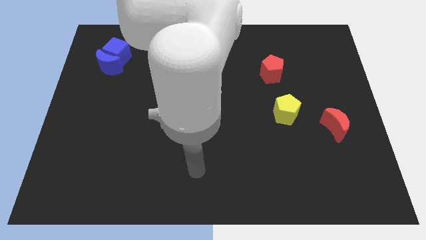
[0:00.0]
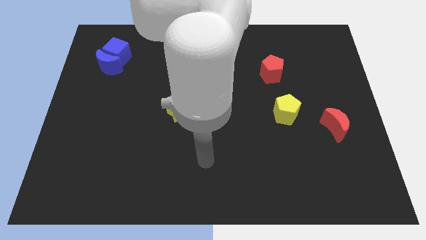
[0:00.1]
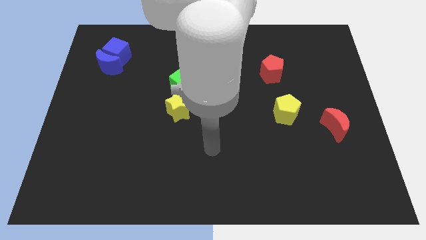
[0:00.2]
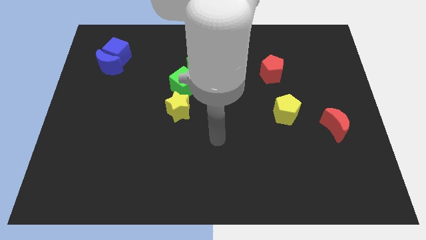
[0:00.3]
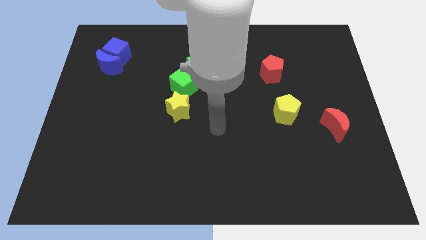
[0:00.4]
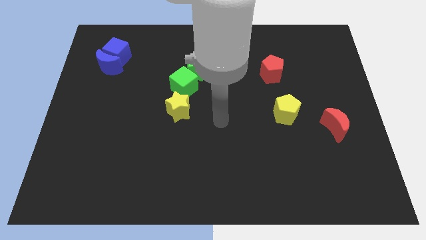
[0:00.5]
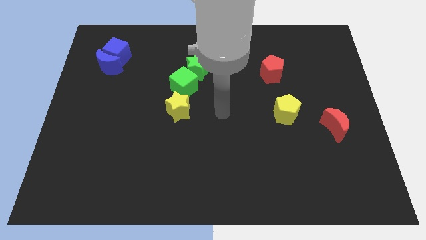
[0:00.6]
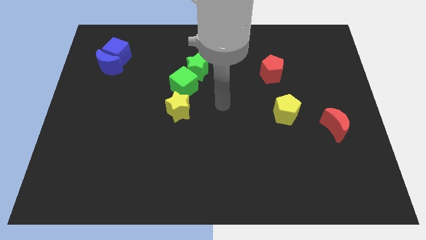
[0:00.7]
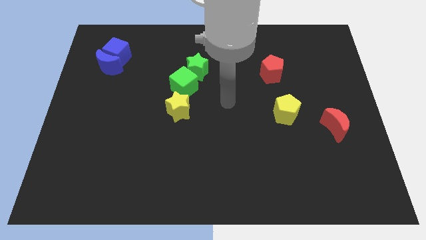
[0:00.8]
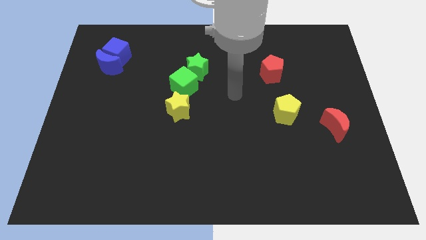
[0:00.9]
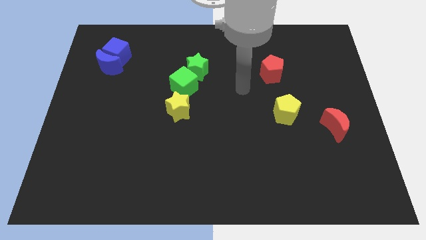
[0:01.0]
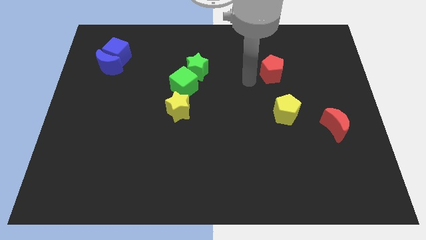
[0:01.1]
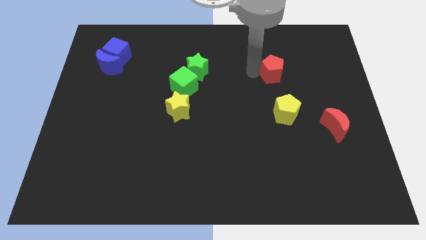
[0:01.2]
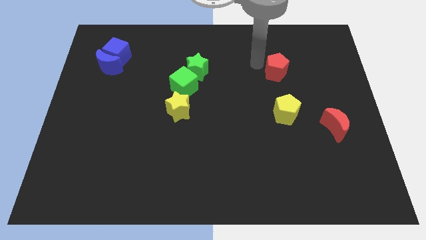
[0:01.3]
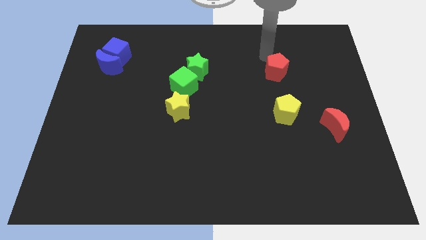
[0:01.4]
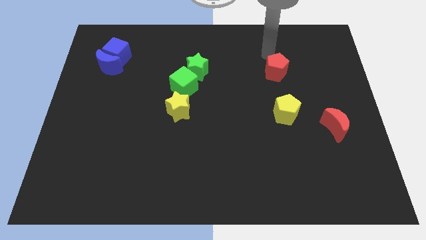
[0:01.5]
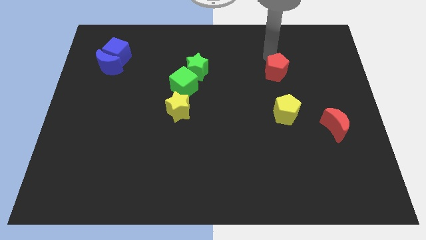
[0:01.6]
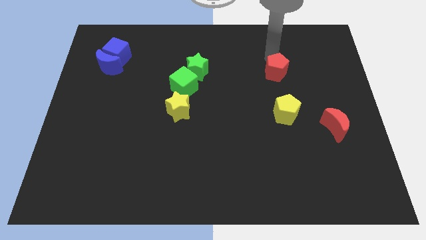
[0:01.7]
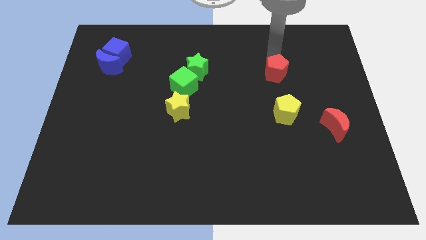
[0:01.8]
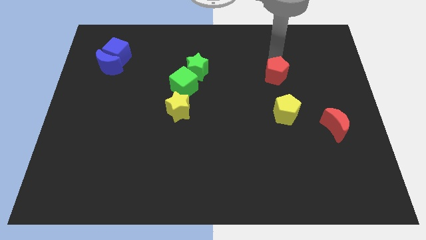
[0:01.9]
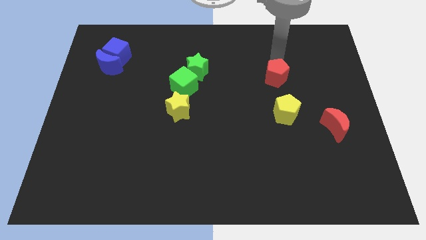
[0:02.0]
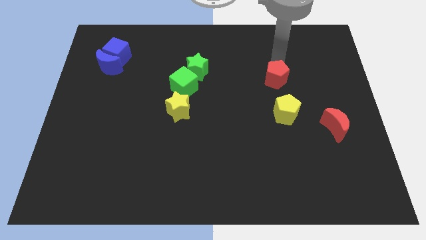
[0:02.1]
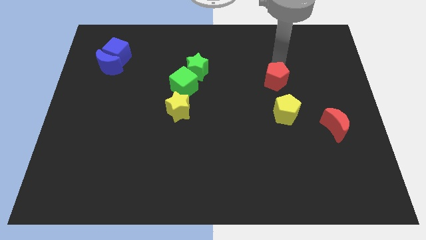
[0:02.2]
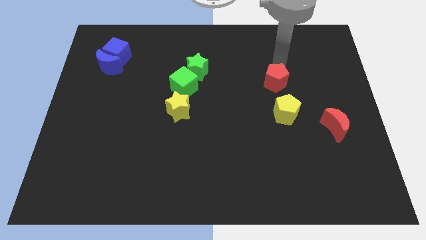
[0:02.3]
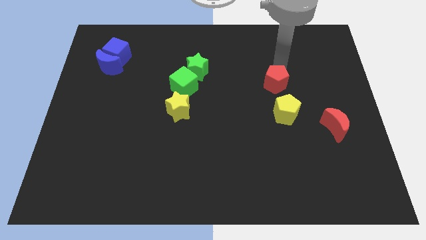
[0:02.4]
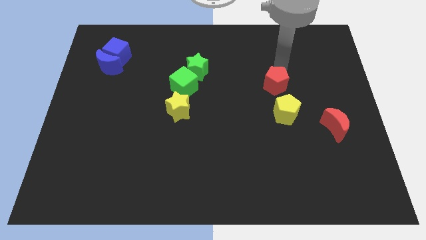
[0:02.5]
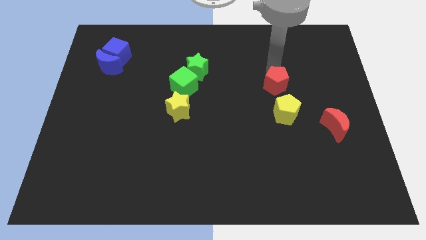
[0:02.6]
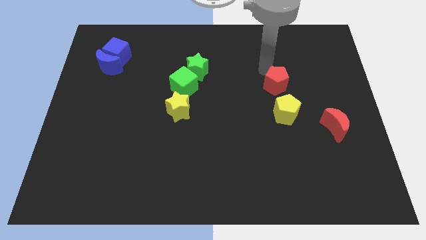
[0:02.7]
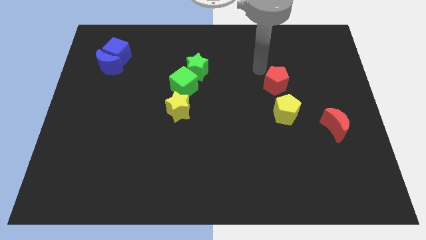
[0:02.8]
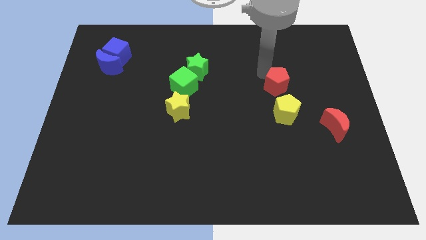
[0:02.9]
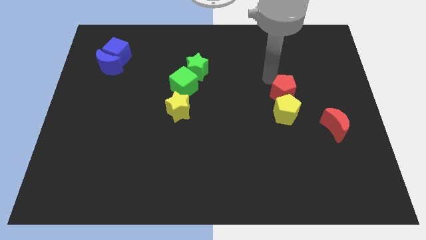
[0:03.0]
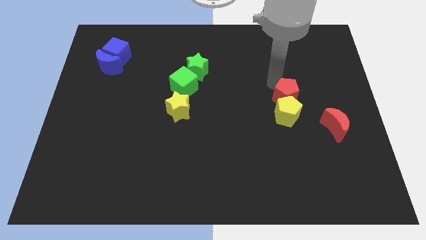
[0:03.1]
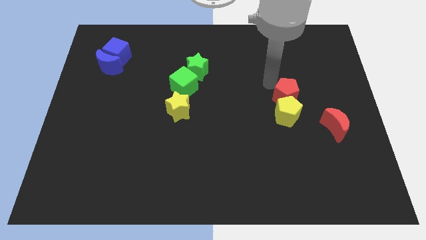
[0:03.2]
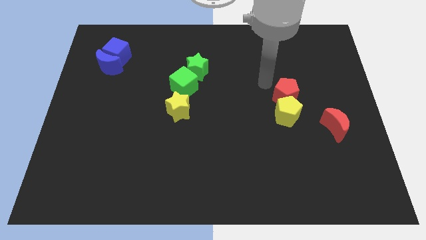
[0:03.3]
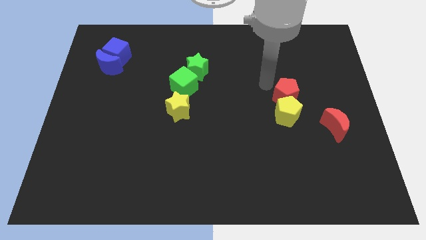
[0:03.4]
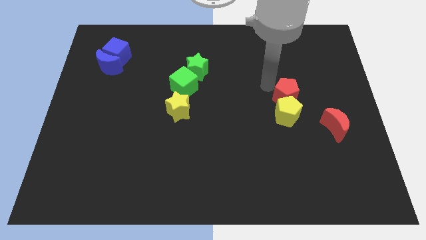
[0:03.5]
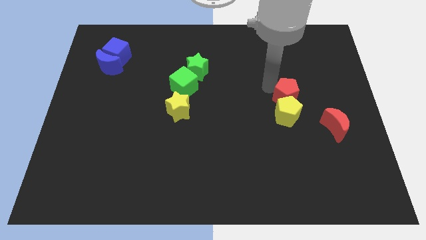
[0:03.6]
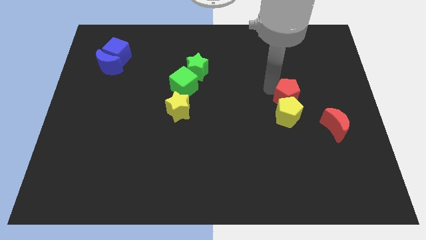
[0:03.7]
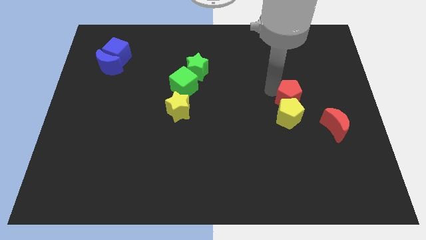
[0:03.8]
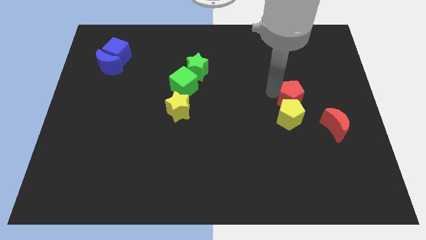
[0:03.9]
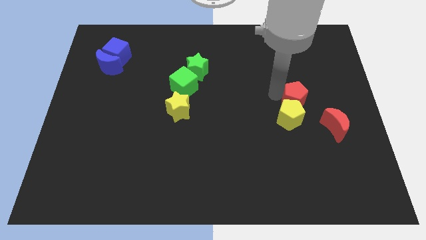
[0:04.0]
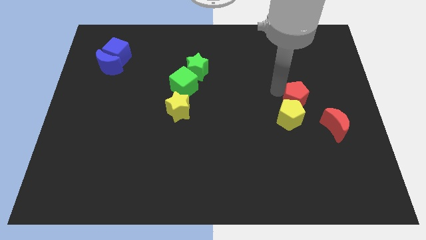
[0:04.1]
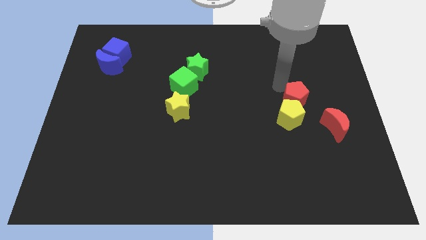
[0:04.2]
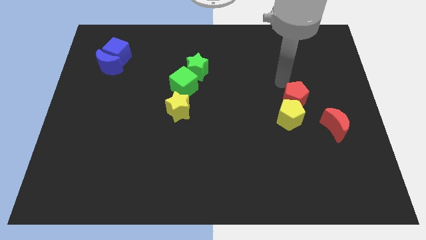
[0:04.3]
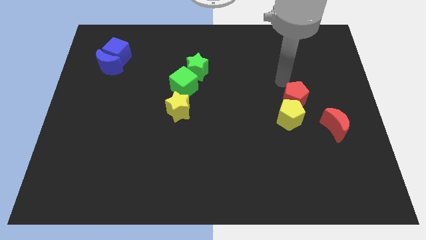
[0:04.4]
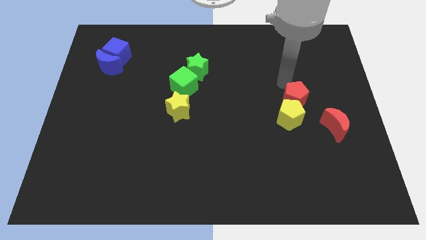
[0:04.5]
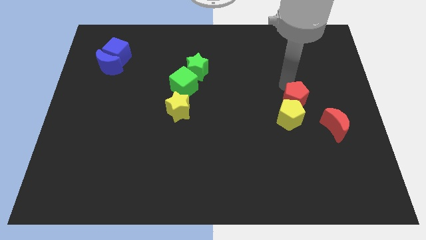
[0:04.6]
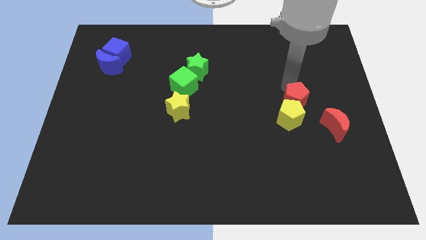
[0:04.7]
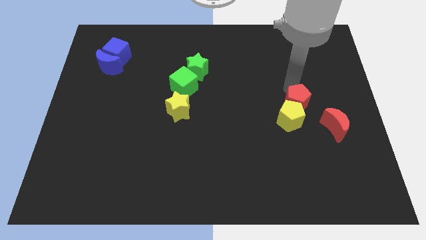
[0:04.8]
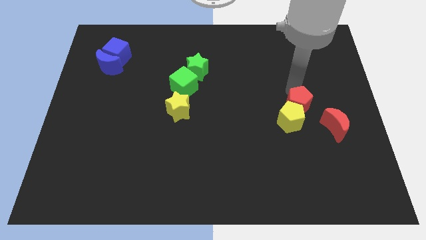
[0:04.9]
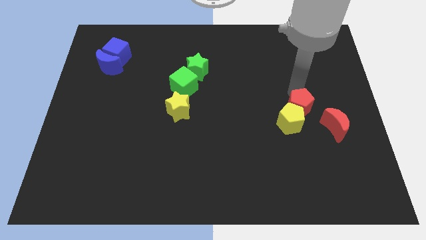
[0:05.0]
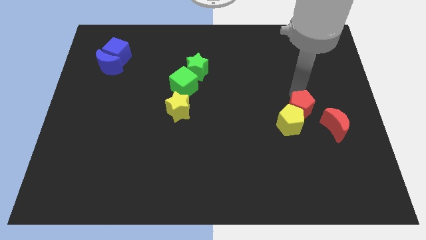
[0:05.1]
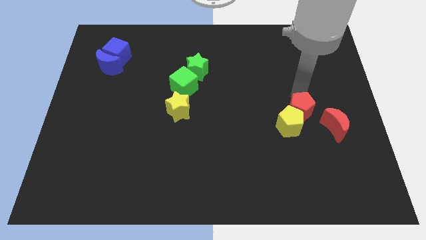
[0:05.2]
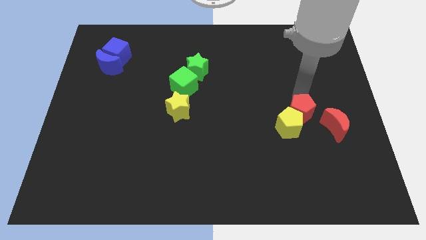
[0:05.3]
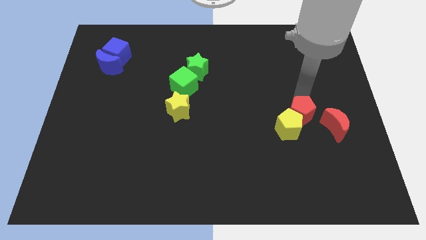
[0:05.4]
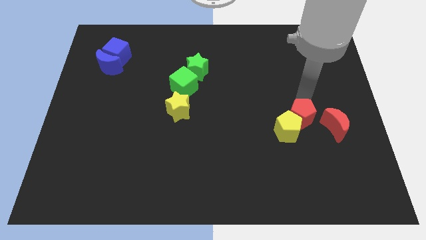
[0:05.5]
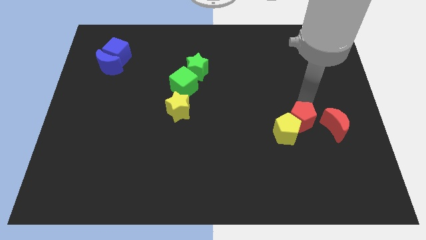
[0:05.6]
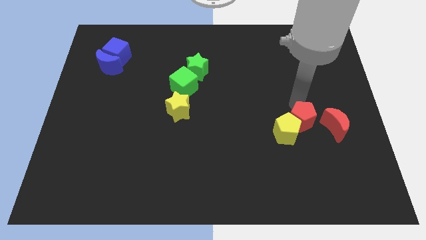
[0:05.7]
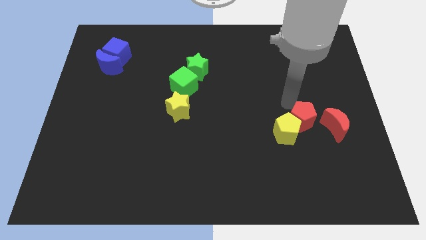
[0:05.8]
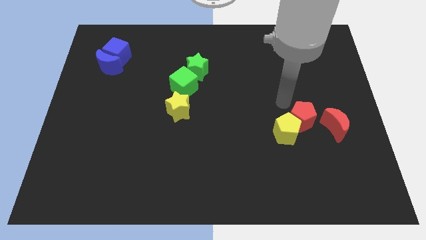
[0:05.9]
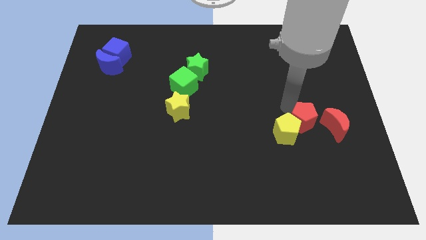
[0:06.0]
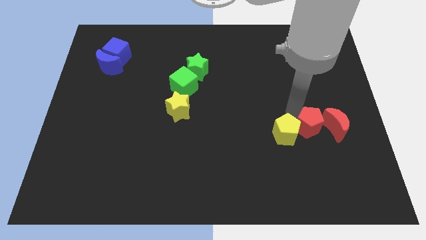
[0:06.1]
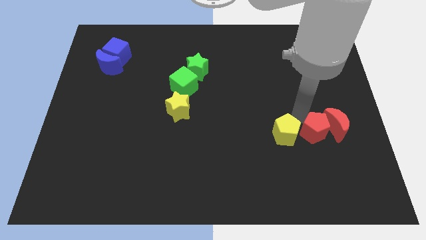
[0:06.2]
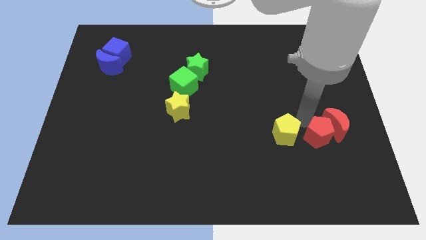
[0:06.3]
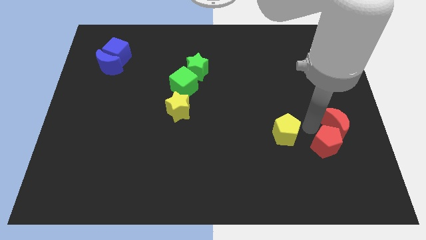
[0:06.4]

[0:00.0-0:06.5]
slide the red pentagon to the bottom side of the red moon

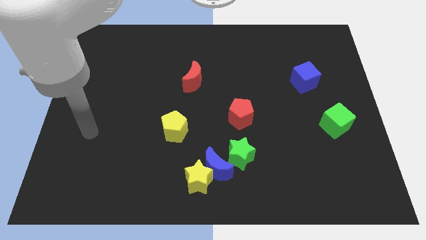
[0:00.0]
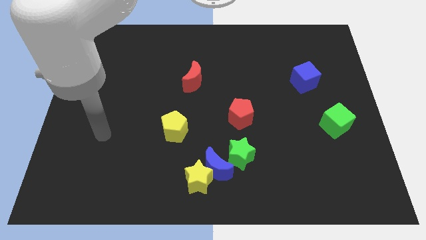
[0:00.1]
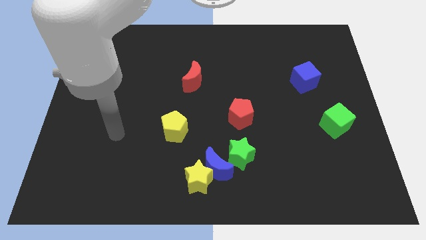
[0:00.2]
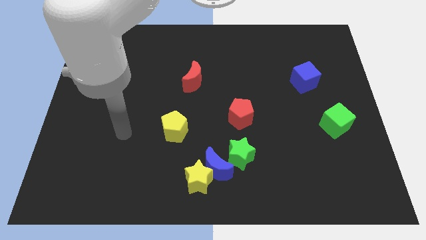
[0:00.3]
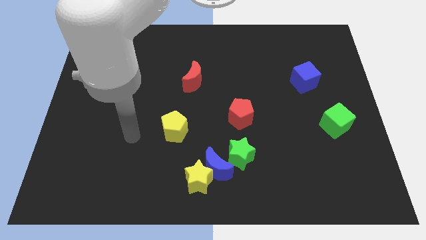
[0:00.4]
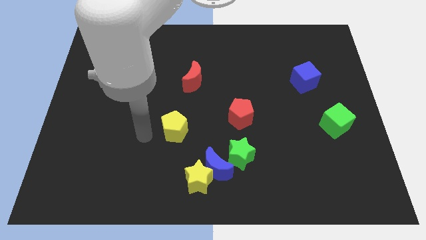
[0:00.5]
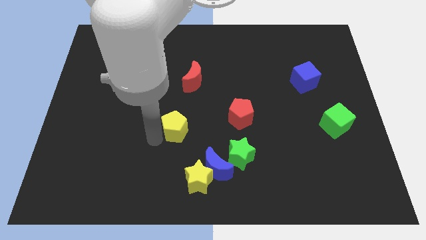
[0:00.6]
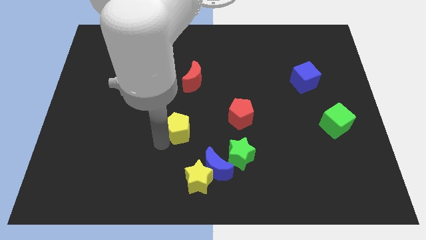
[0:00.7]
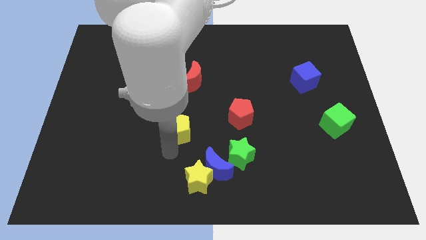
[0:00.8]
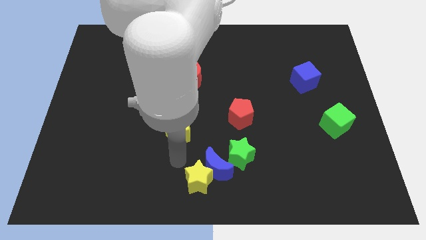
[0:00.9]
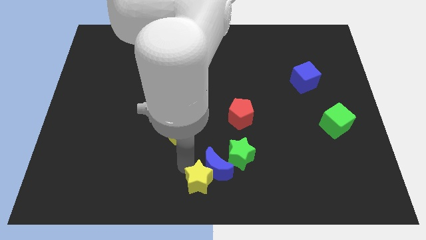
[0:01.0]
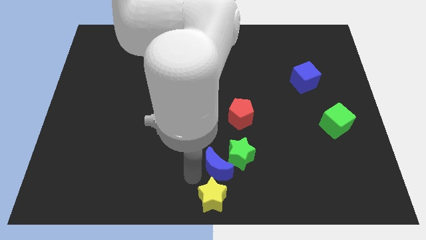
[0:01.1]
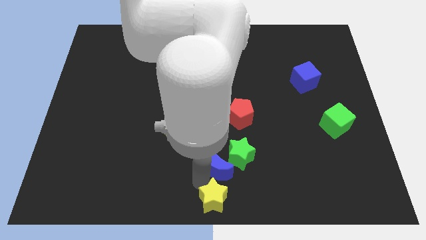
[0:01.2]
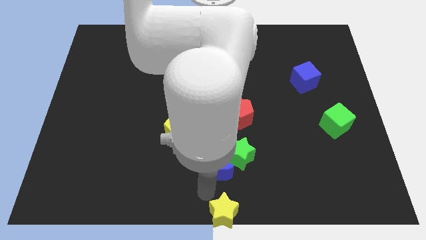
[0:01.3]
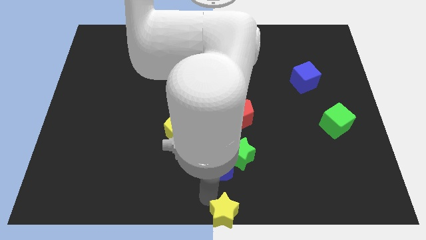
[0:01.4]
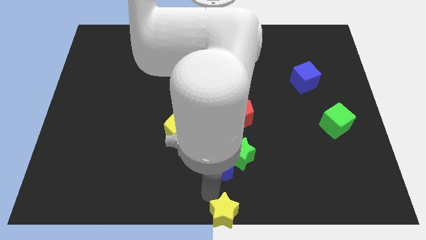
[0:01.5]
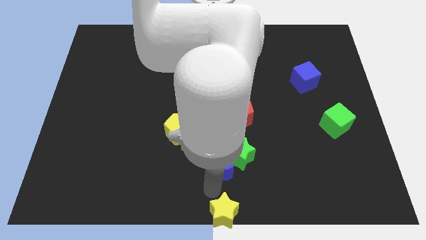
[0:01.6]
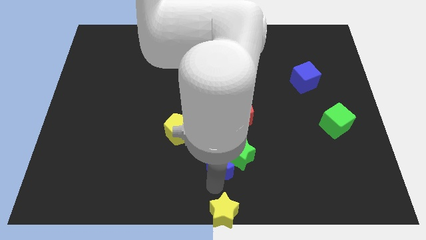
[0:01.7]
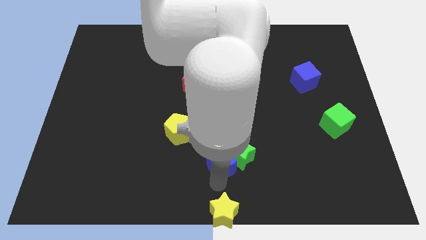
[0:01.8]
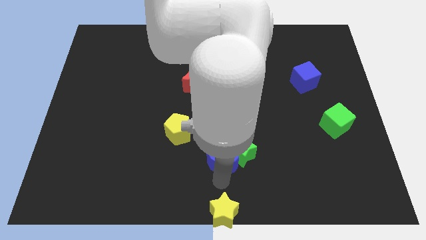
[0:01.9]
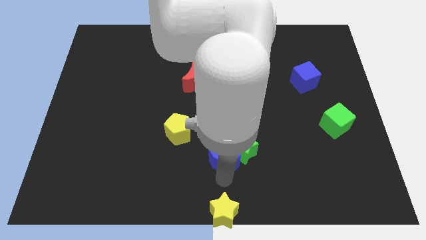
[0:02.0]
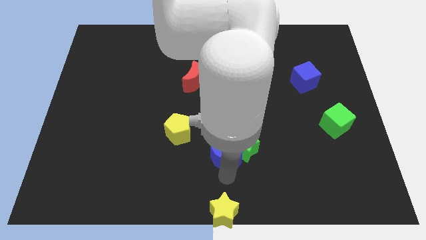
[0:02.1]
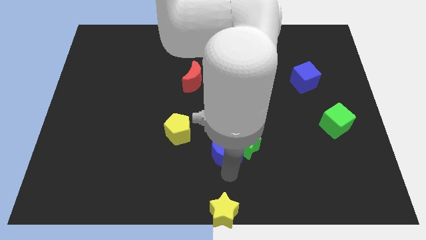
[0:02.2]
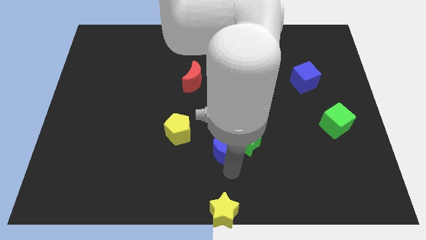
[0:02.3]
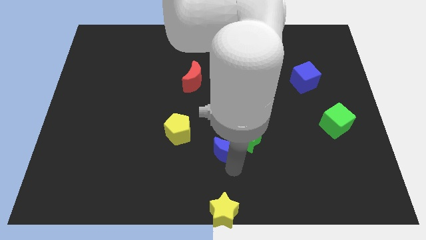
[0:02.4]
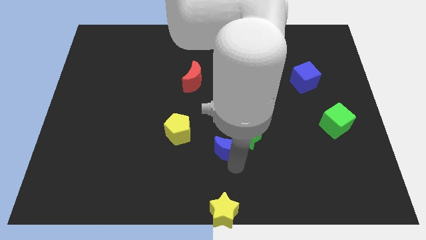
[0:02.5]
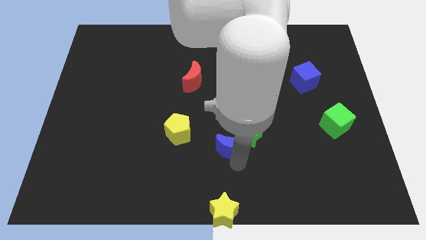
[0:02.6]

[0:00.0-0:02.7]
slide the blue moon to the right side of the yellow pentagon
